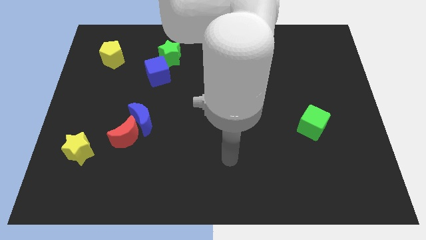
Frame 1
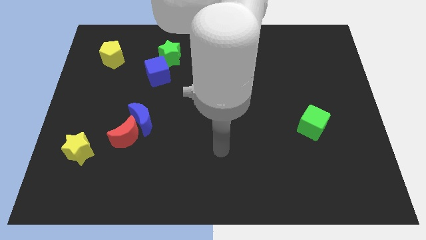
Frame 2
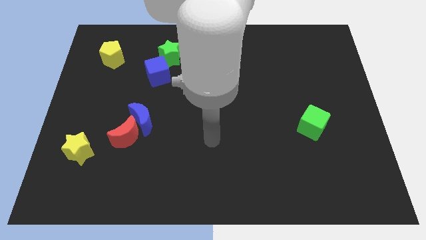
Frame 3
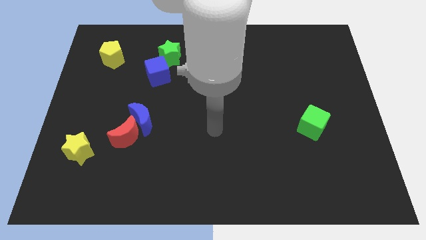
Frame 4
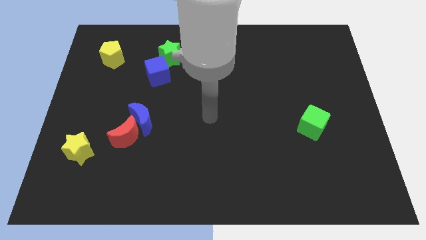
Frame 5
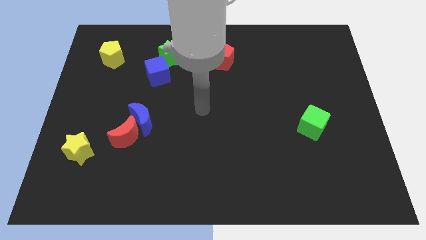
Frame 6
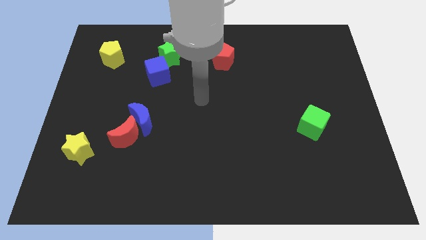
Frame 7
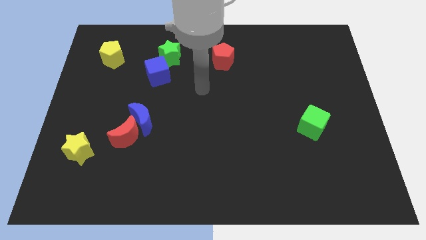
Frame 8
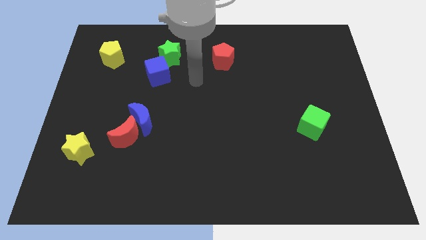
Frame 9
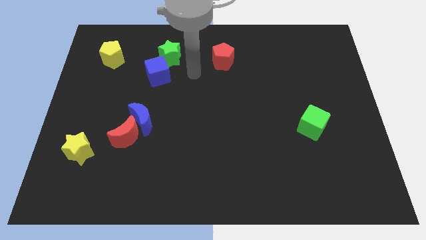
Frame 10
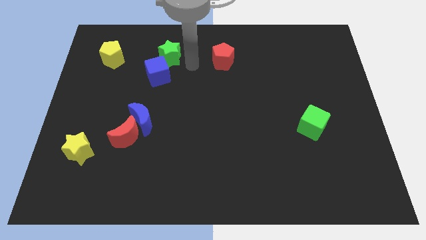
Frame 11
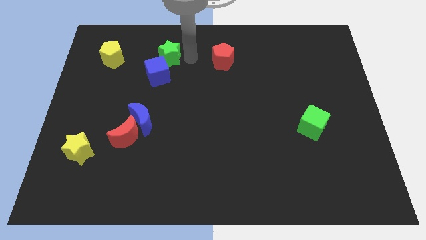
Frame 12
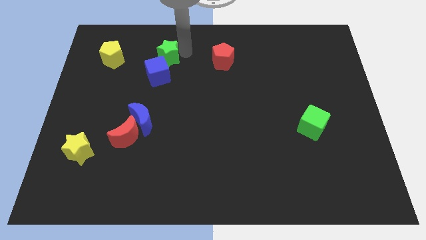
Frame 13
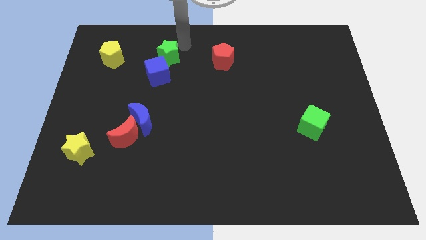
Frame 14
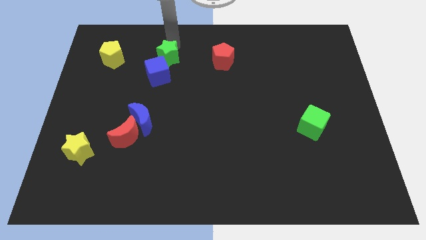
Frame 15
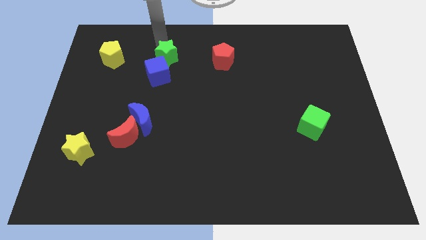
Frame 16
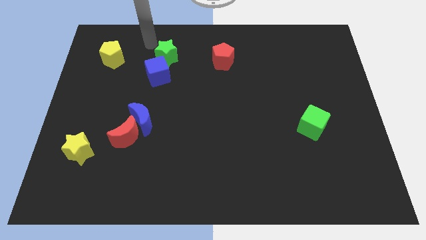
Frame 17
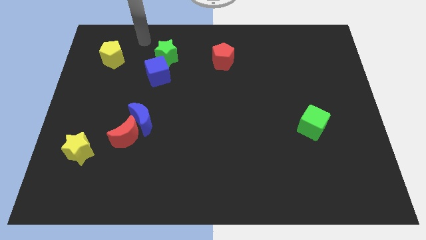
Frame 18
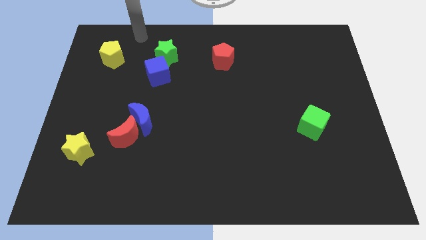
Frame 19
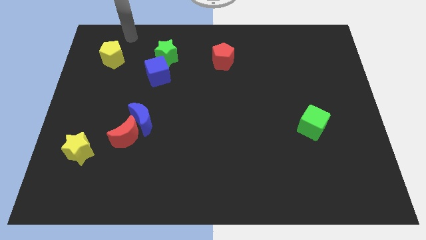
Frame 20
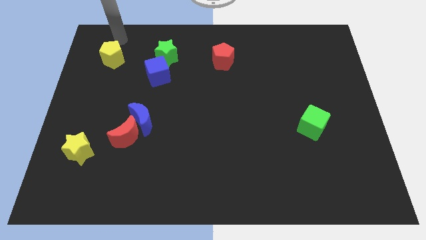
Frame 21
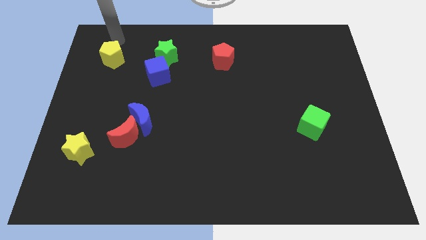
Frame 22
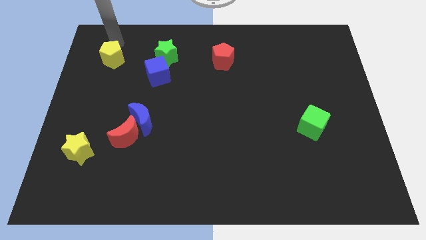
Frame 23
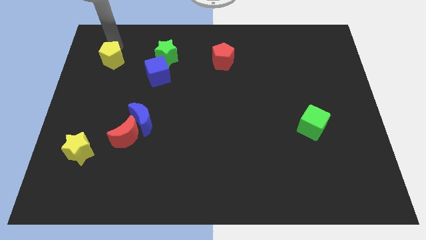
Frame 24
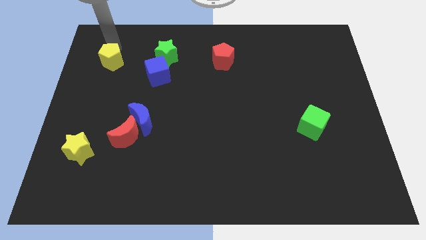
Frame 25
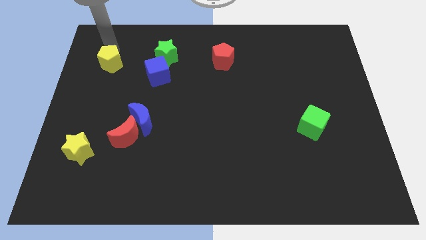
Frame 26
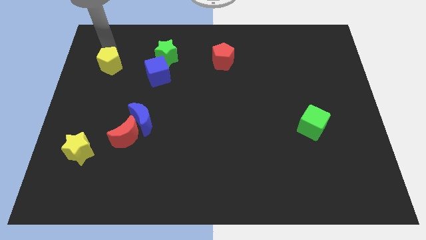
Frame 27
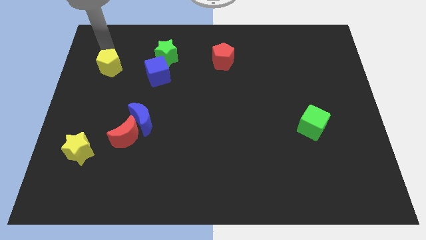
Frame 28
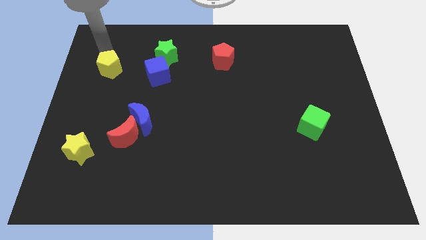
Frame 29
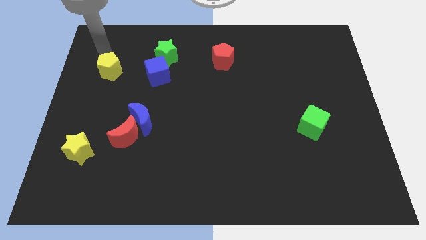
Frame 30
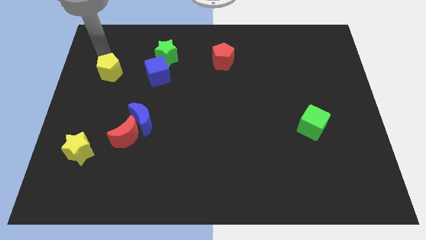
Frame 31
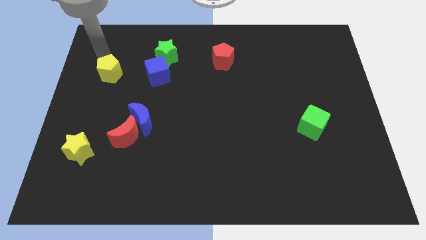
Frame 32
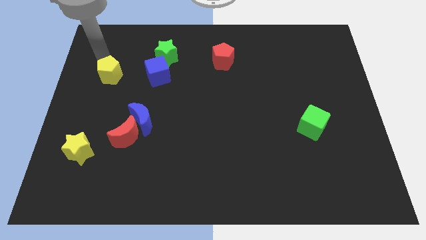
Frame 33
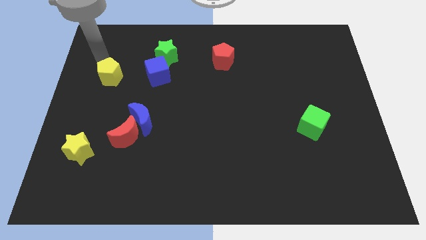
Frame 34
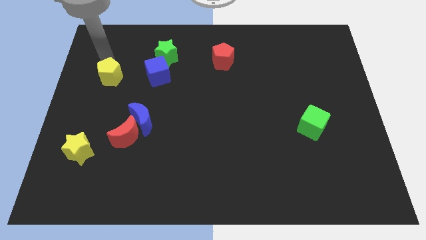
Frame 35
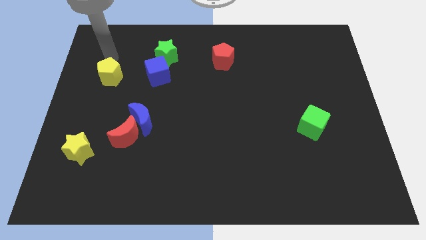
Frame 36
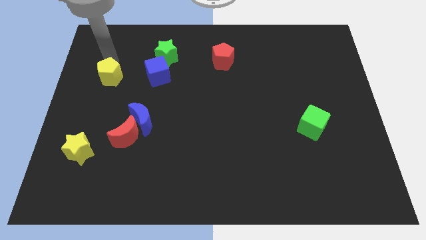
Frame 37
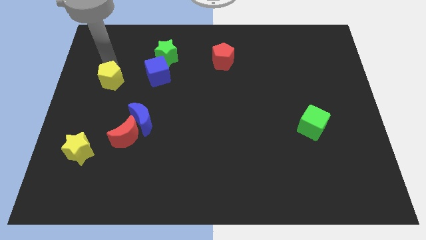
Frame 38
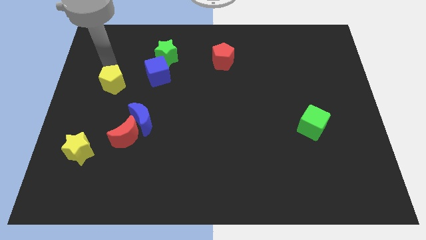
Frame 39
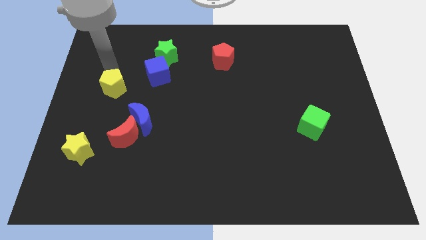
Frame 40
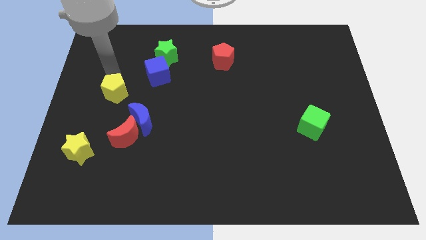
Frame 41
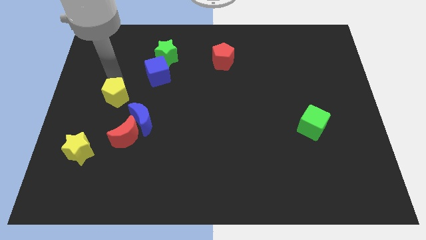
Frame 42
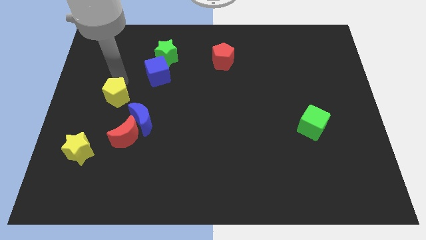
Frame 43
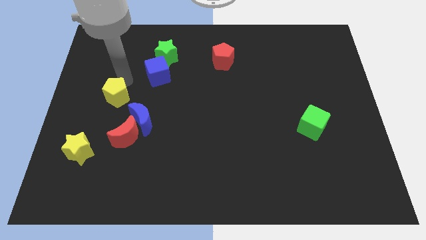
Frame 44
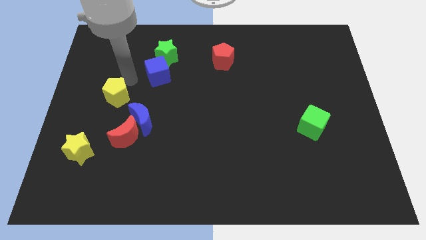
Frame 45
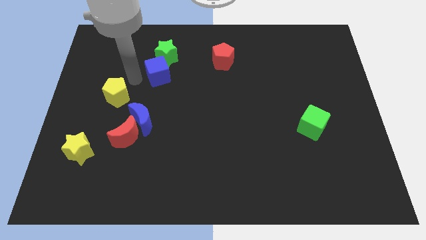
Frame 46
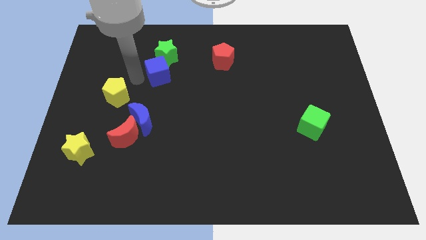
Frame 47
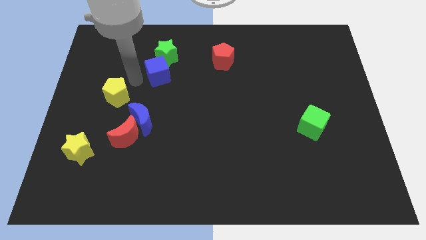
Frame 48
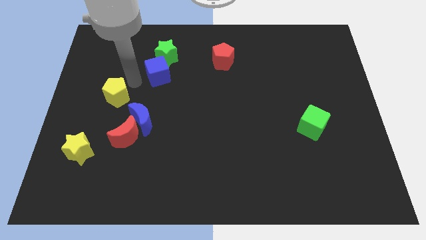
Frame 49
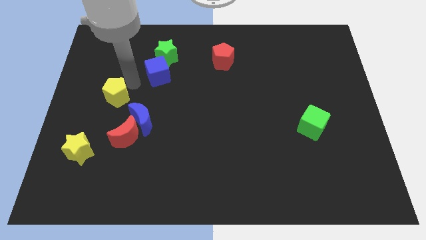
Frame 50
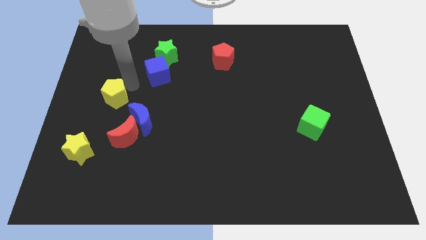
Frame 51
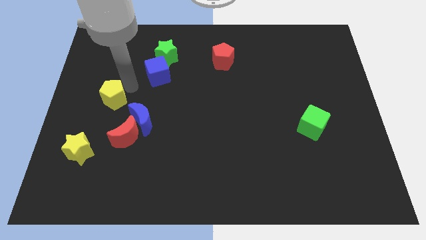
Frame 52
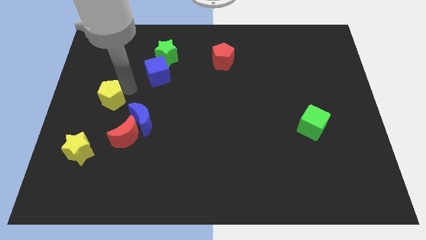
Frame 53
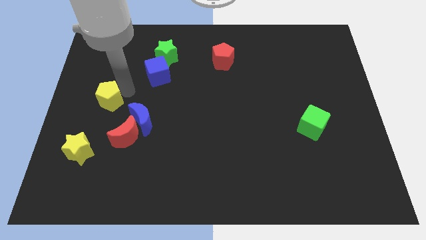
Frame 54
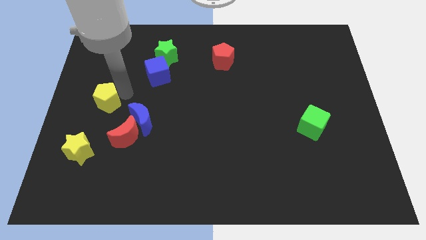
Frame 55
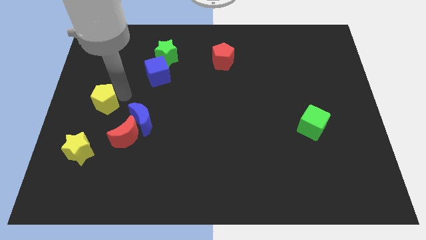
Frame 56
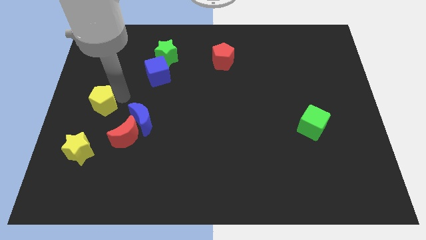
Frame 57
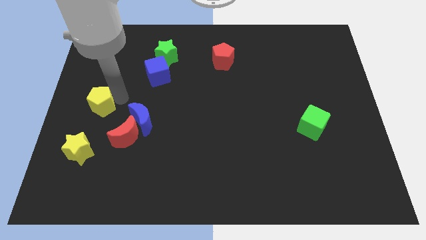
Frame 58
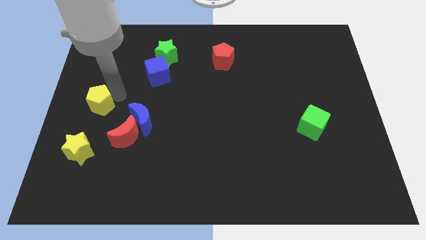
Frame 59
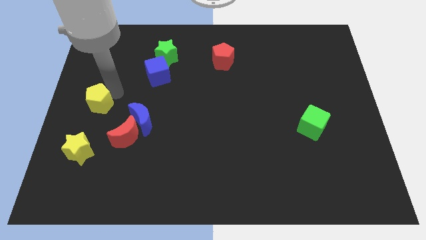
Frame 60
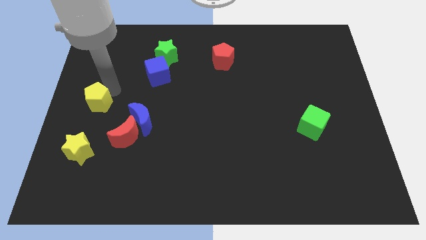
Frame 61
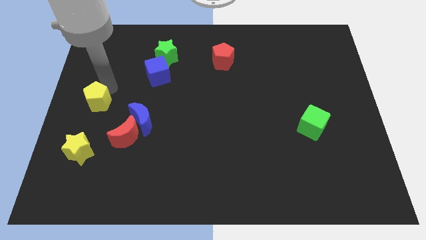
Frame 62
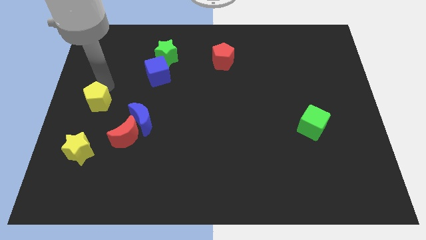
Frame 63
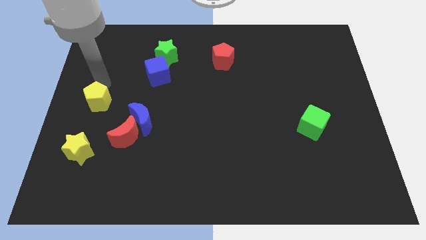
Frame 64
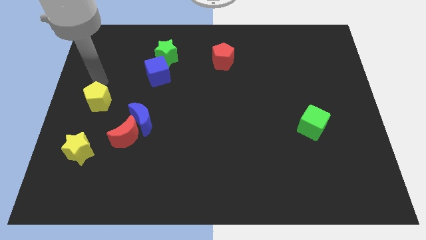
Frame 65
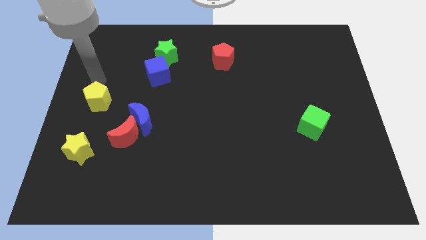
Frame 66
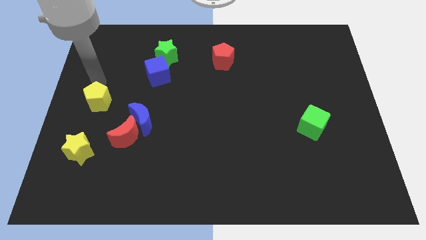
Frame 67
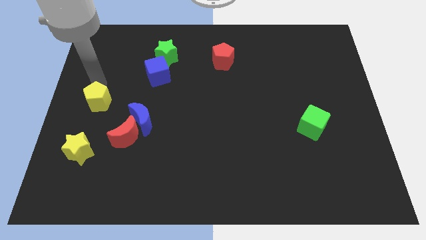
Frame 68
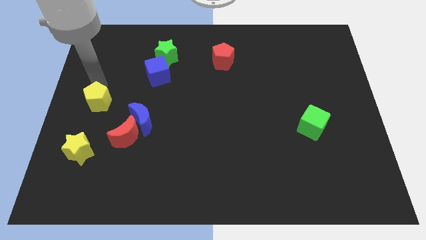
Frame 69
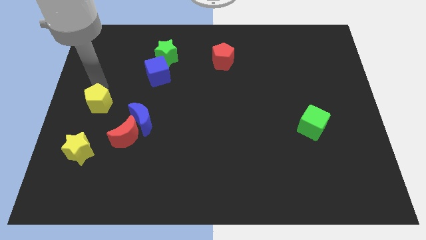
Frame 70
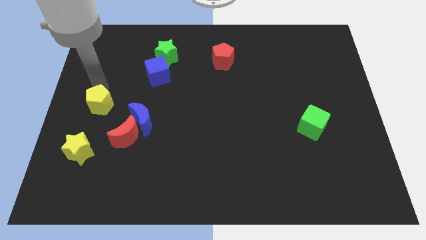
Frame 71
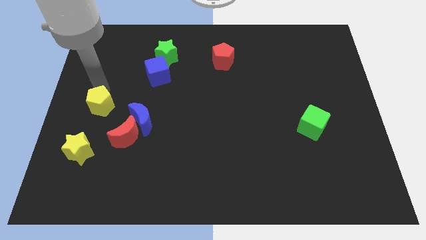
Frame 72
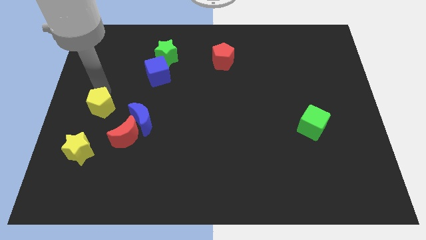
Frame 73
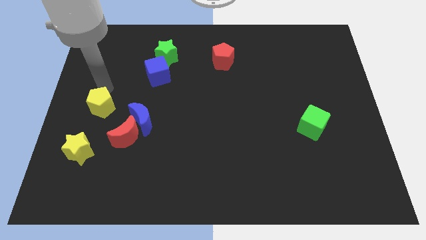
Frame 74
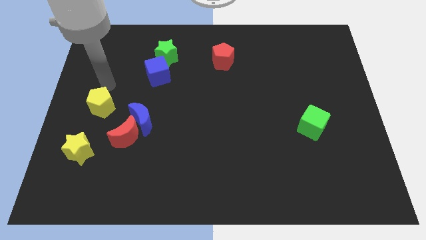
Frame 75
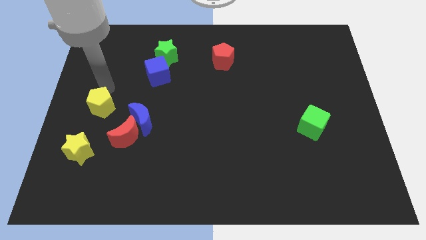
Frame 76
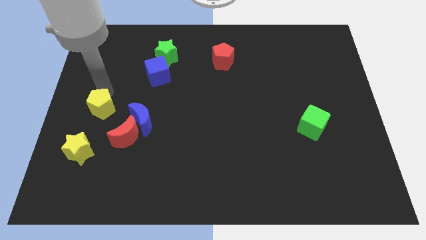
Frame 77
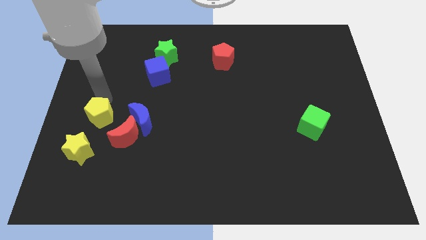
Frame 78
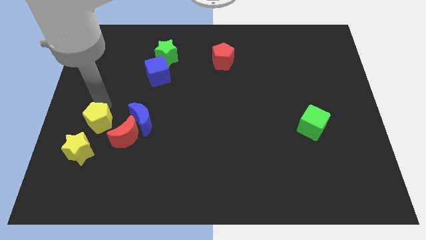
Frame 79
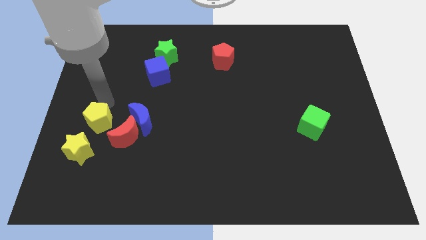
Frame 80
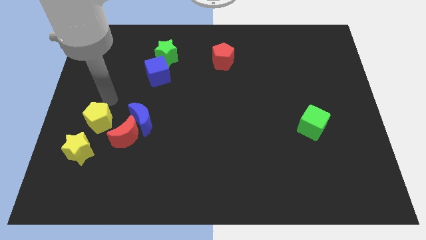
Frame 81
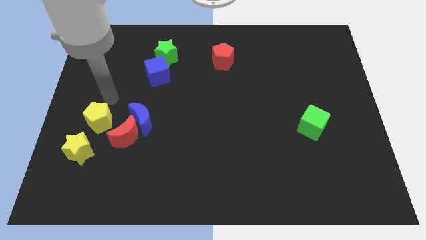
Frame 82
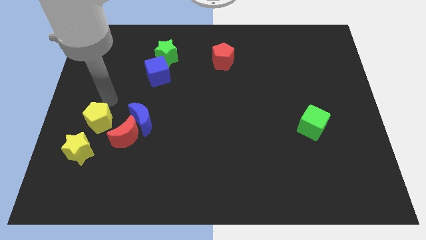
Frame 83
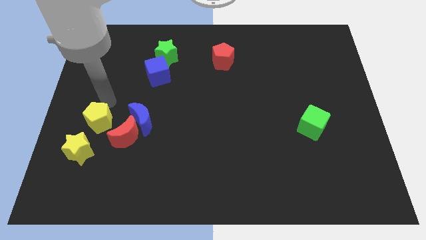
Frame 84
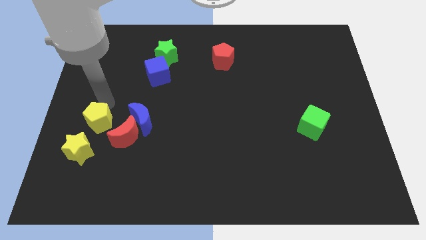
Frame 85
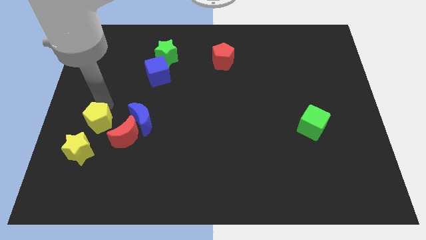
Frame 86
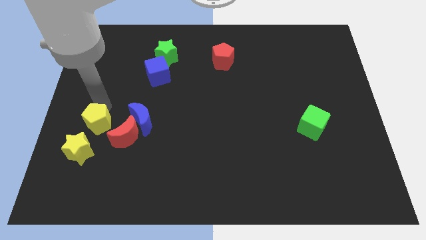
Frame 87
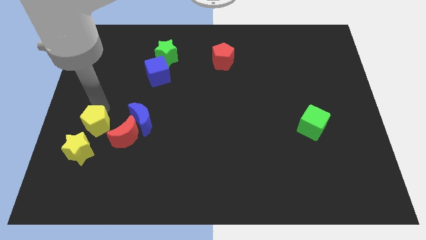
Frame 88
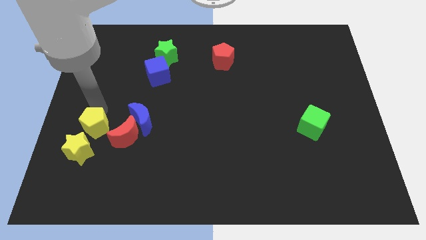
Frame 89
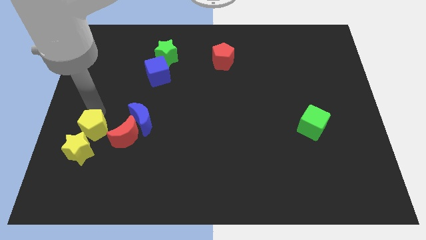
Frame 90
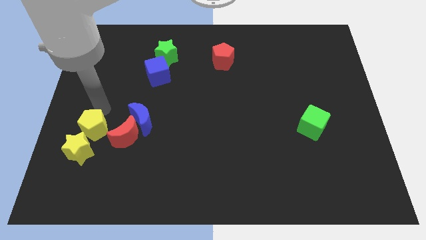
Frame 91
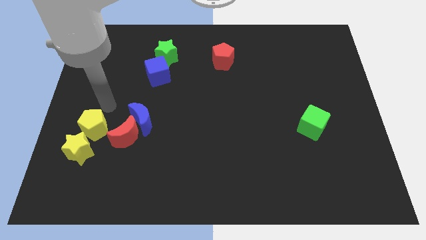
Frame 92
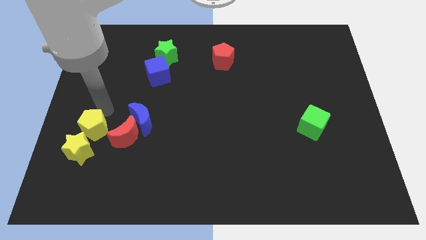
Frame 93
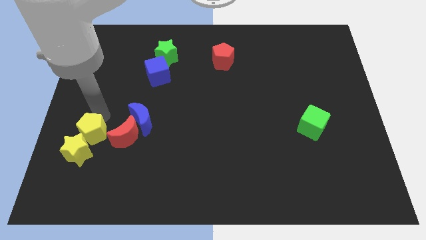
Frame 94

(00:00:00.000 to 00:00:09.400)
put the yellow pentagon next to the yellow star
